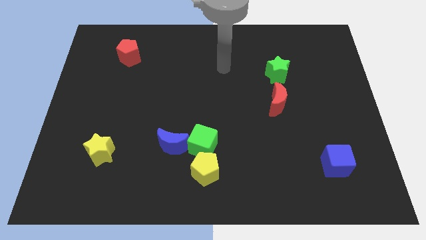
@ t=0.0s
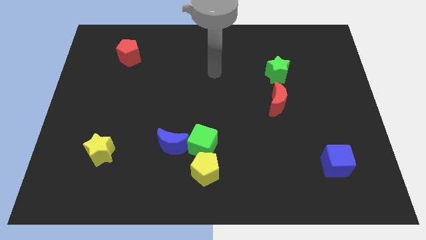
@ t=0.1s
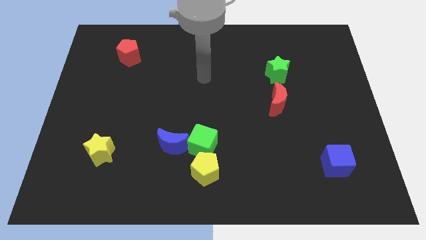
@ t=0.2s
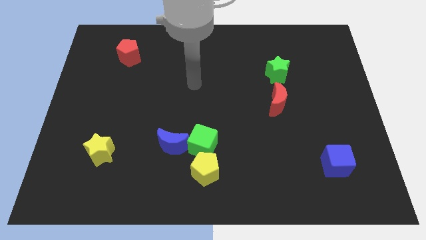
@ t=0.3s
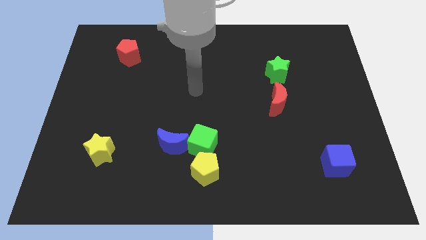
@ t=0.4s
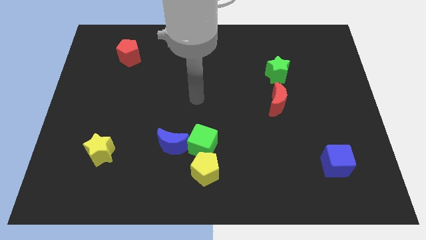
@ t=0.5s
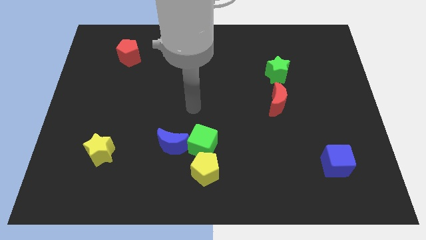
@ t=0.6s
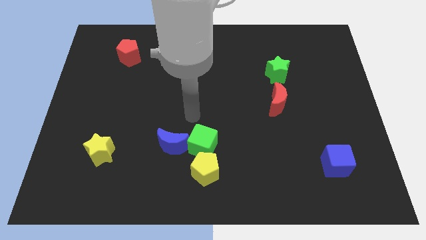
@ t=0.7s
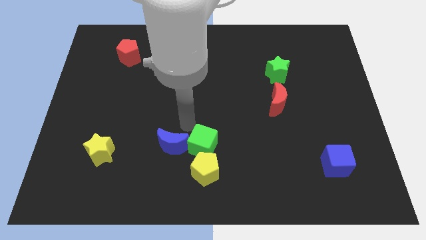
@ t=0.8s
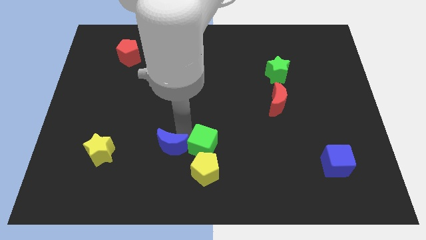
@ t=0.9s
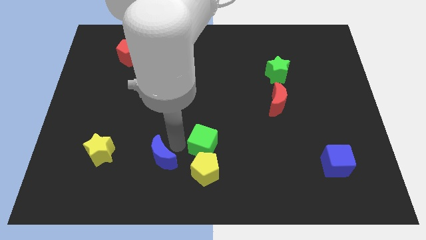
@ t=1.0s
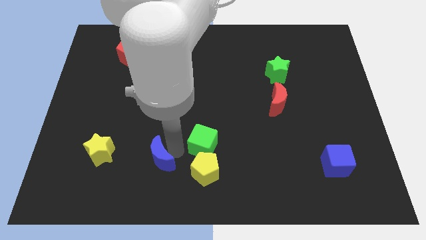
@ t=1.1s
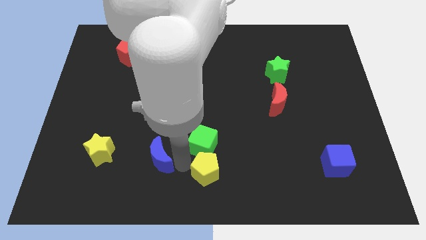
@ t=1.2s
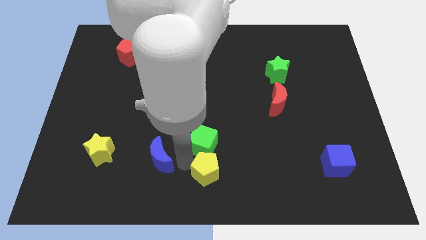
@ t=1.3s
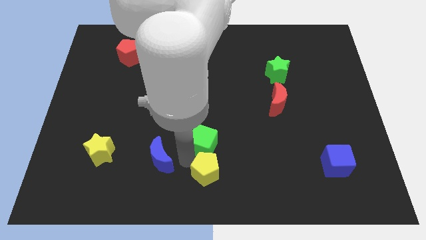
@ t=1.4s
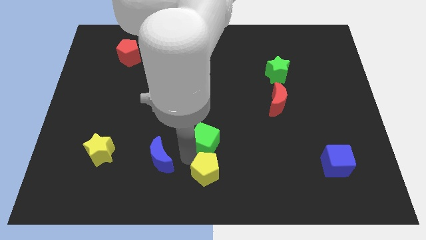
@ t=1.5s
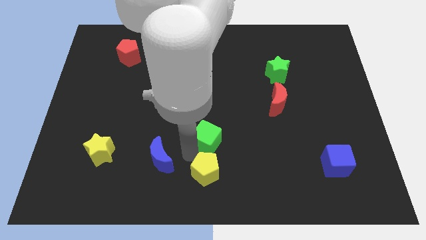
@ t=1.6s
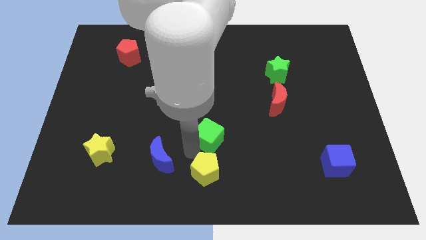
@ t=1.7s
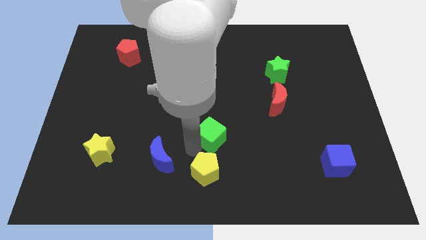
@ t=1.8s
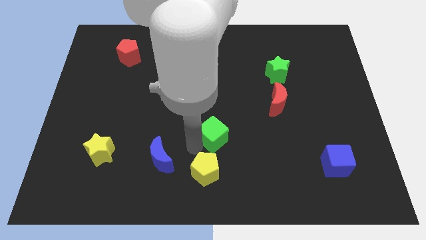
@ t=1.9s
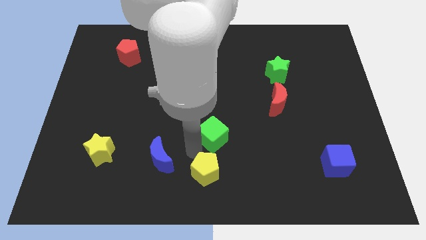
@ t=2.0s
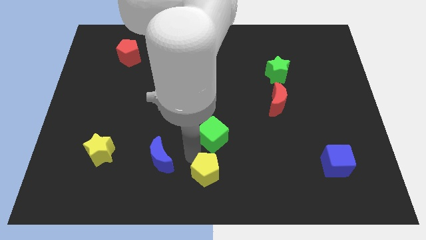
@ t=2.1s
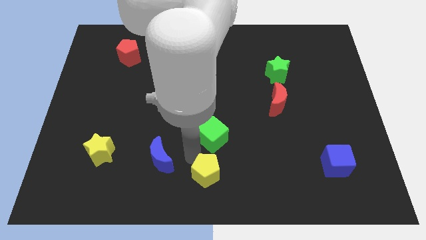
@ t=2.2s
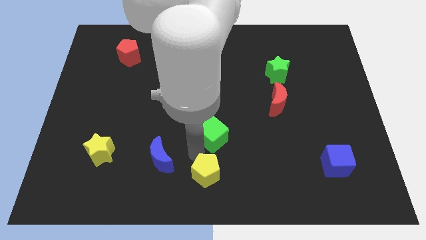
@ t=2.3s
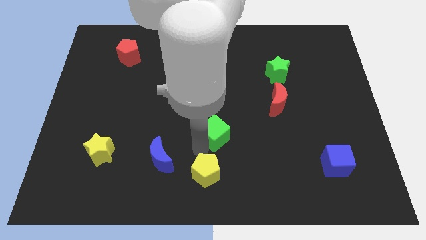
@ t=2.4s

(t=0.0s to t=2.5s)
pull the green cube apart from the blue moon and yellow pentagon

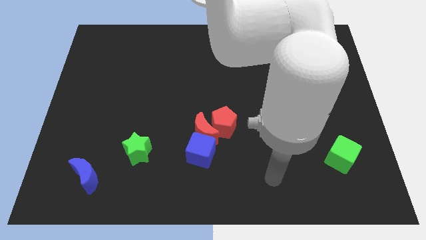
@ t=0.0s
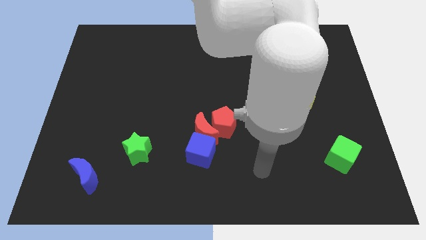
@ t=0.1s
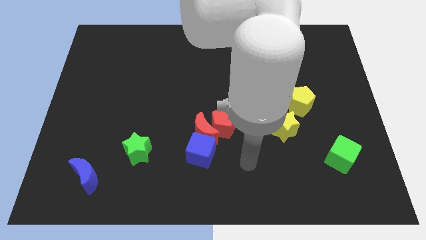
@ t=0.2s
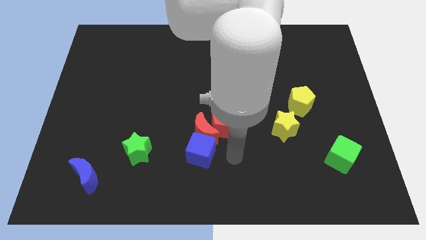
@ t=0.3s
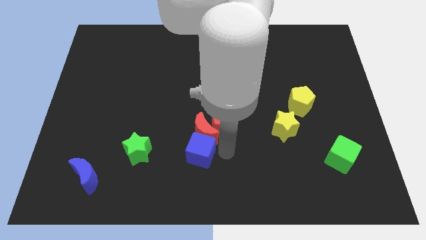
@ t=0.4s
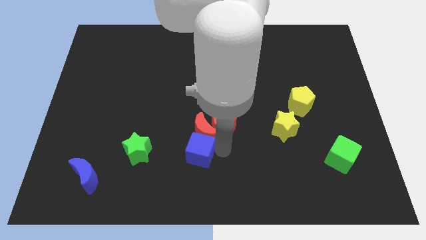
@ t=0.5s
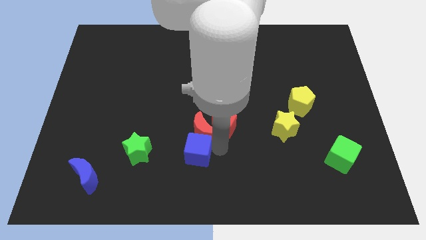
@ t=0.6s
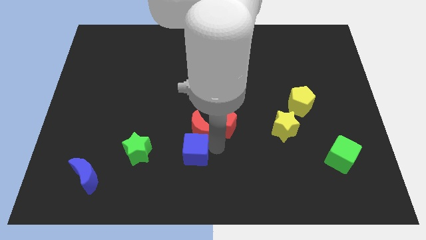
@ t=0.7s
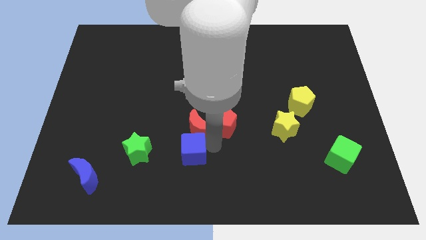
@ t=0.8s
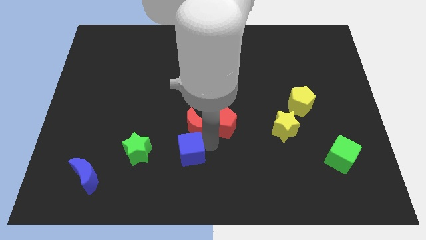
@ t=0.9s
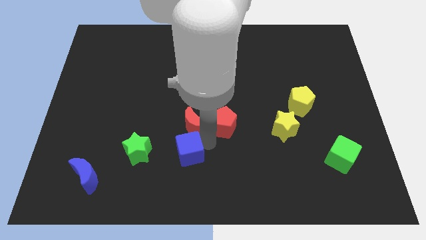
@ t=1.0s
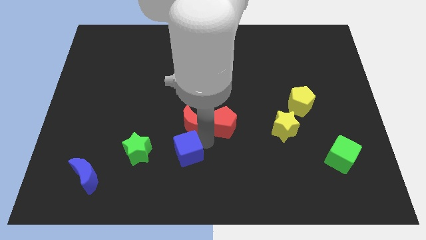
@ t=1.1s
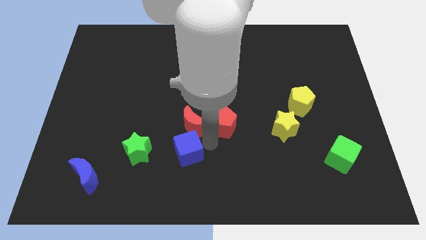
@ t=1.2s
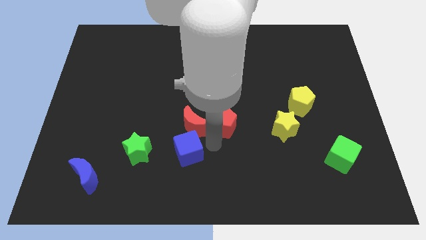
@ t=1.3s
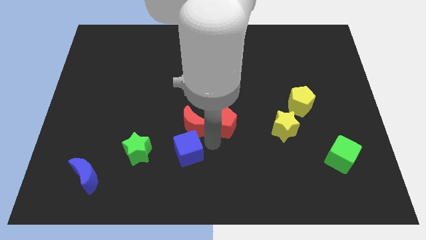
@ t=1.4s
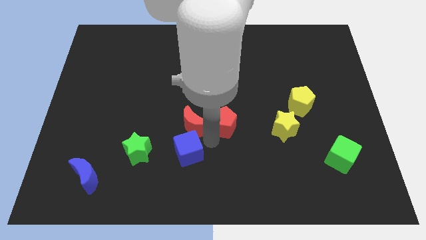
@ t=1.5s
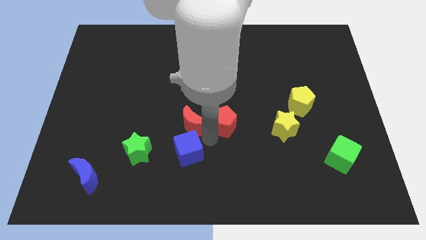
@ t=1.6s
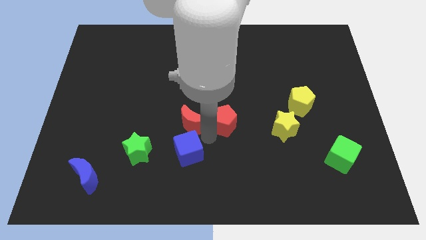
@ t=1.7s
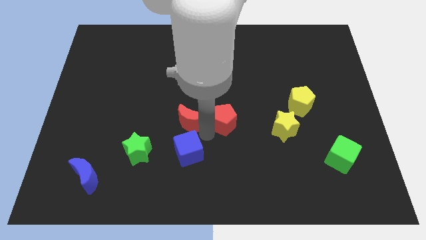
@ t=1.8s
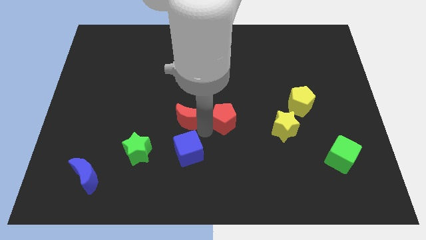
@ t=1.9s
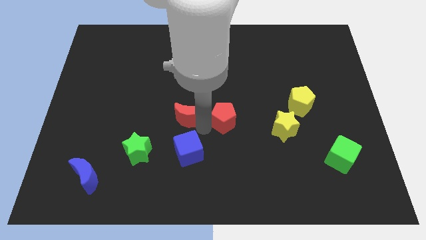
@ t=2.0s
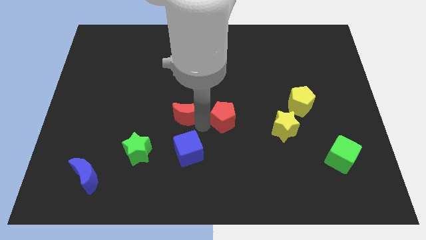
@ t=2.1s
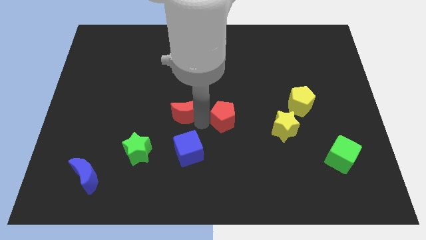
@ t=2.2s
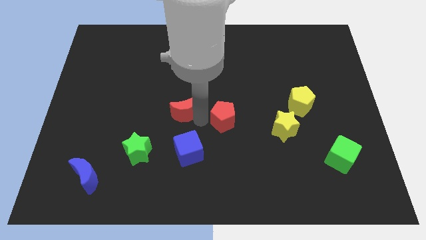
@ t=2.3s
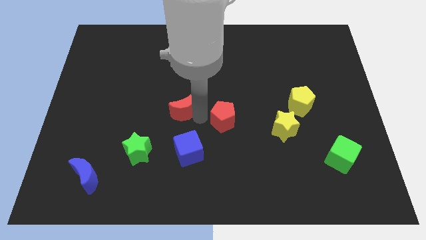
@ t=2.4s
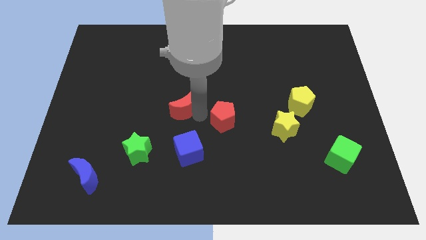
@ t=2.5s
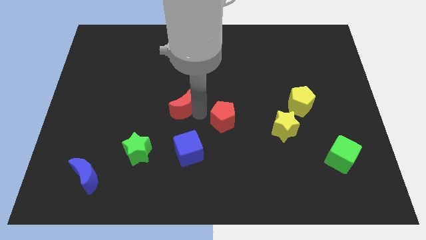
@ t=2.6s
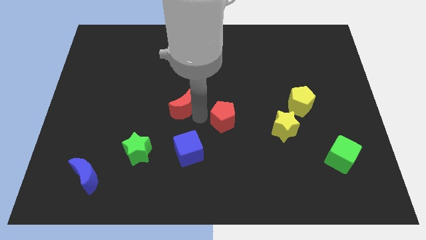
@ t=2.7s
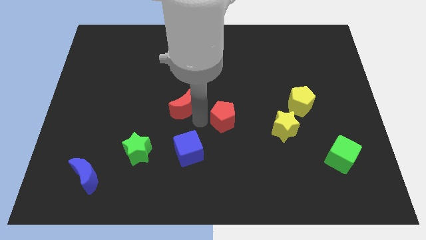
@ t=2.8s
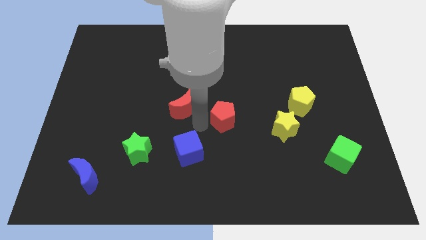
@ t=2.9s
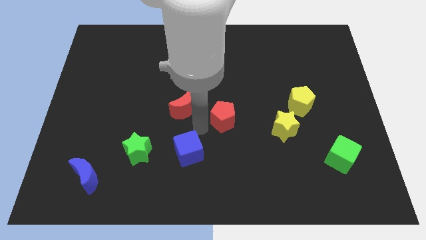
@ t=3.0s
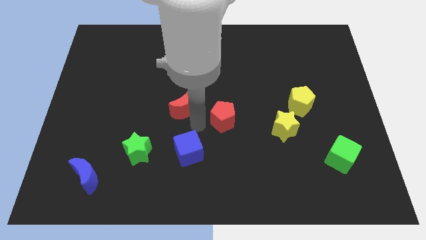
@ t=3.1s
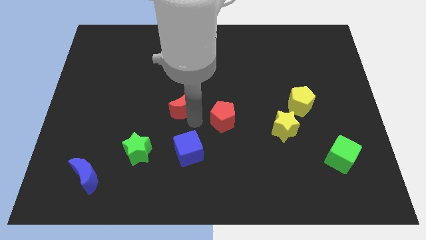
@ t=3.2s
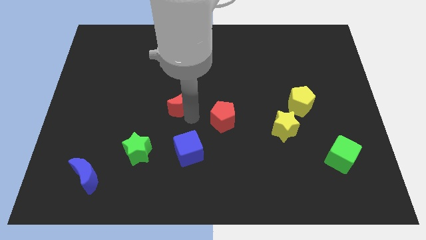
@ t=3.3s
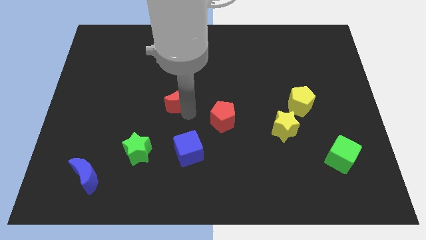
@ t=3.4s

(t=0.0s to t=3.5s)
move the red moon away from the red pentagon and blue cube

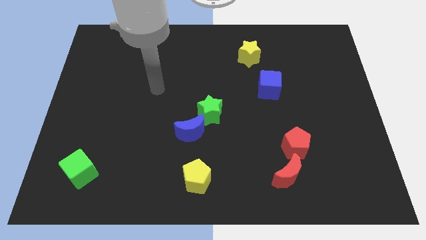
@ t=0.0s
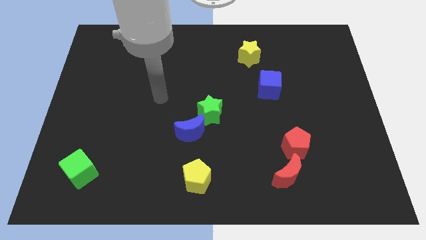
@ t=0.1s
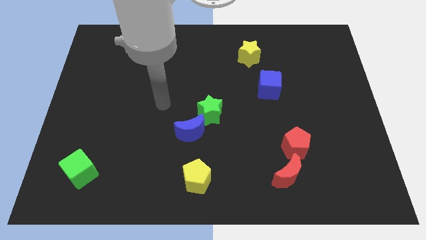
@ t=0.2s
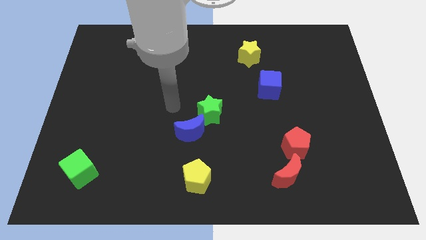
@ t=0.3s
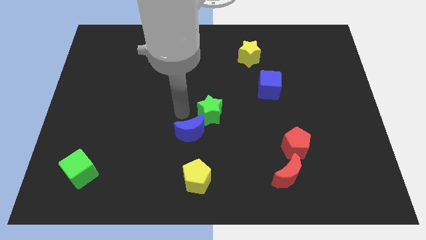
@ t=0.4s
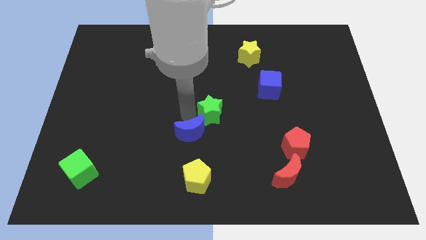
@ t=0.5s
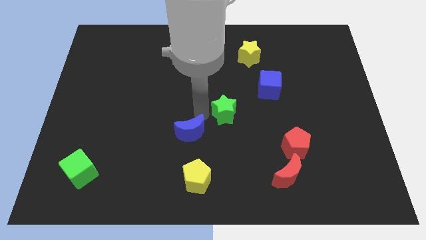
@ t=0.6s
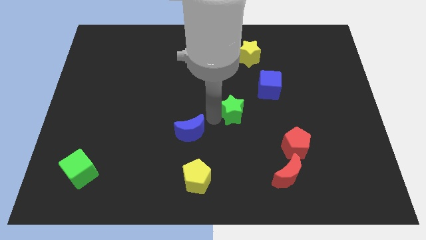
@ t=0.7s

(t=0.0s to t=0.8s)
move the blue moon away from the green star

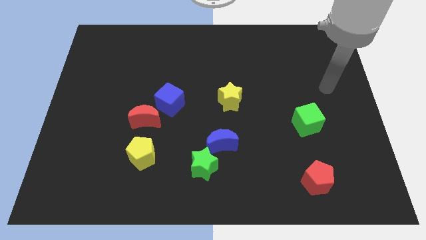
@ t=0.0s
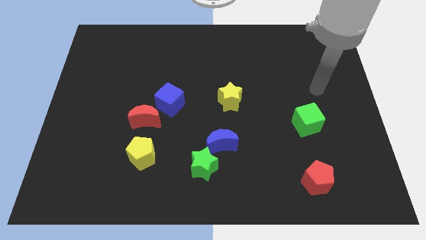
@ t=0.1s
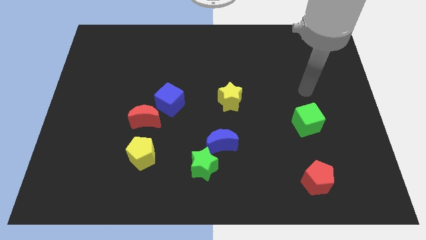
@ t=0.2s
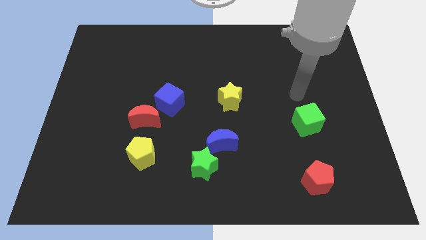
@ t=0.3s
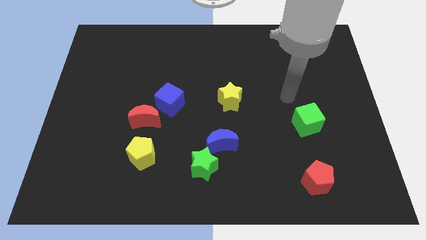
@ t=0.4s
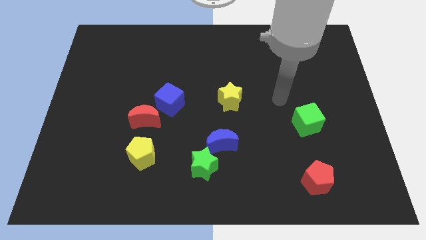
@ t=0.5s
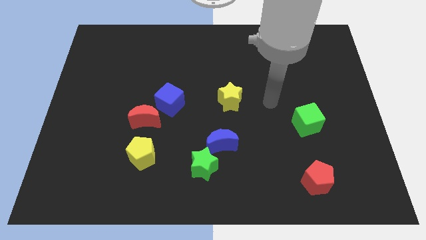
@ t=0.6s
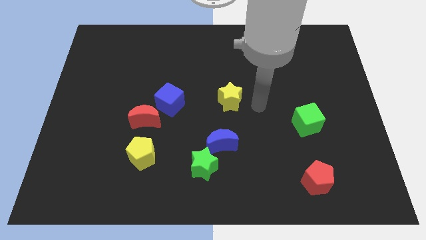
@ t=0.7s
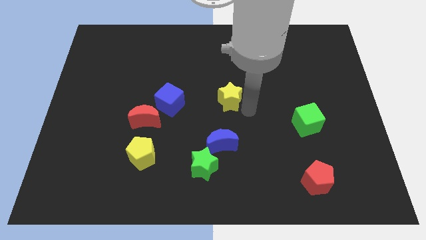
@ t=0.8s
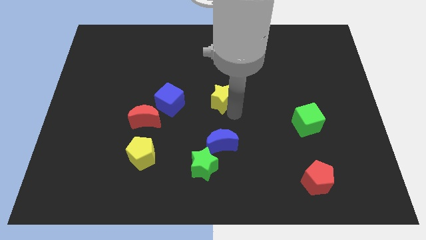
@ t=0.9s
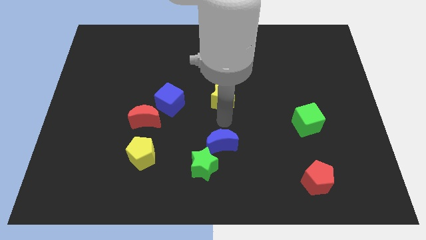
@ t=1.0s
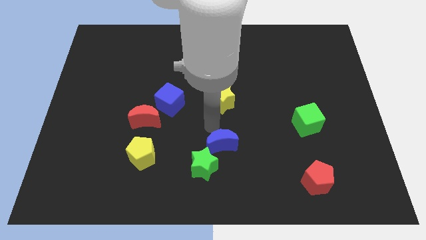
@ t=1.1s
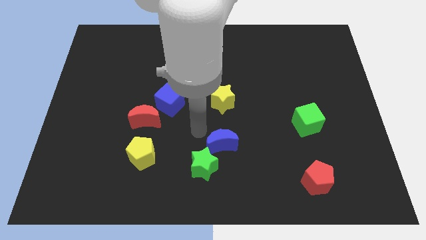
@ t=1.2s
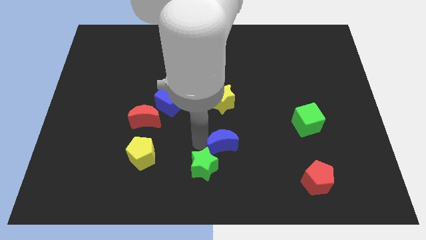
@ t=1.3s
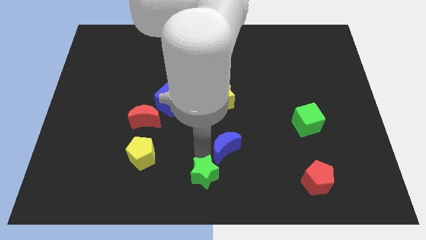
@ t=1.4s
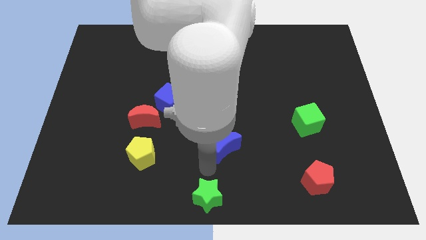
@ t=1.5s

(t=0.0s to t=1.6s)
pull the blue moon apart from the green star

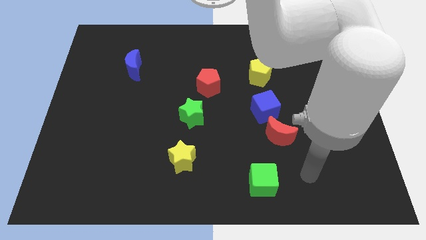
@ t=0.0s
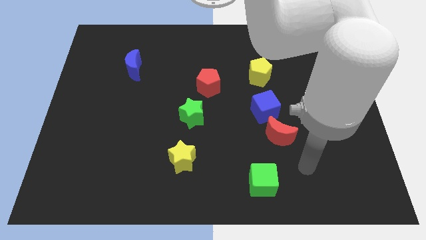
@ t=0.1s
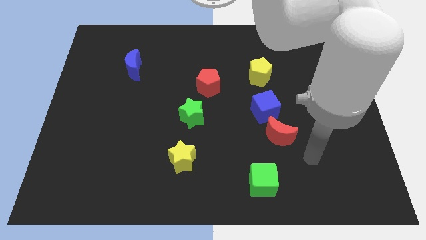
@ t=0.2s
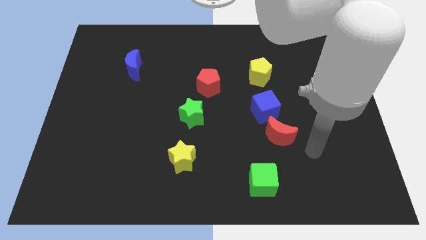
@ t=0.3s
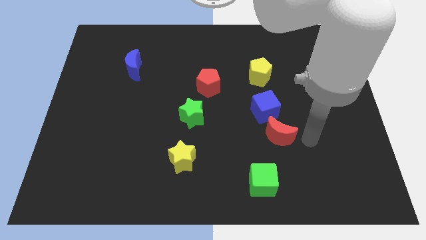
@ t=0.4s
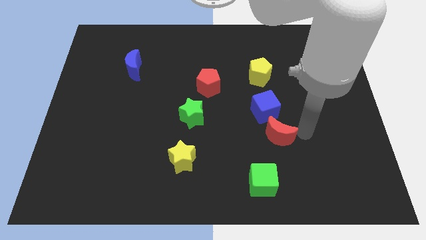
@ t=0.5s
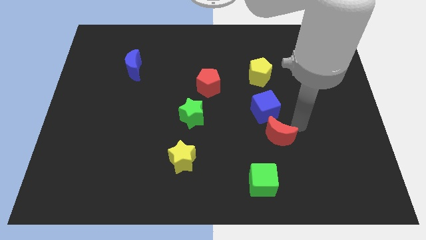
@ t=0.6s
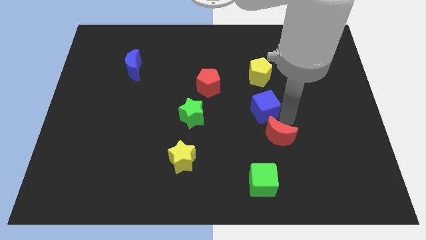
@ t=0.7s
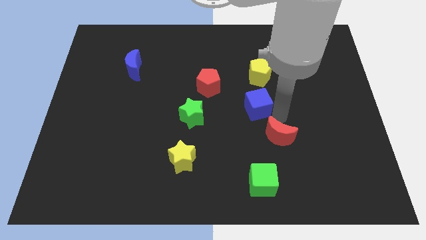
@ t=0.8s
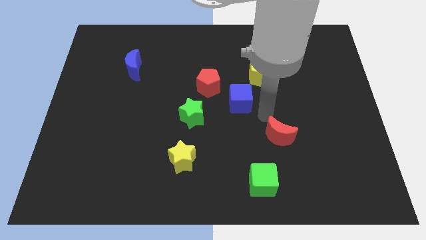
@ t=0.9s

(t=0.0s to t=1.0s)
move the red moon away from the blue cube
